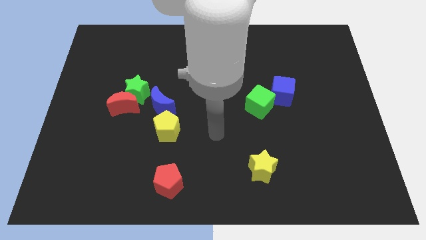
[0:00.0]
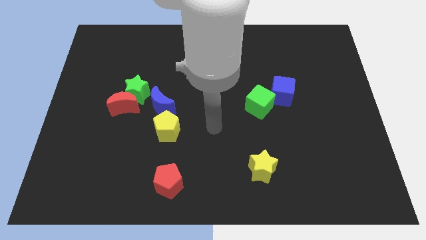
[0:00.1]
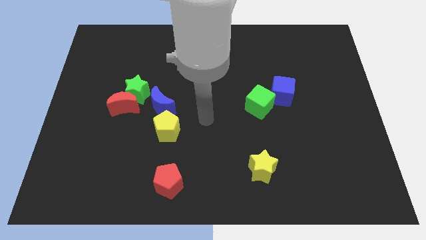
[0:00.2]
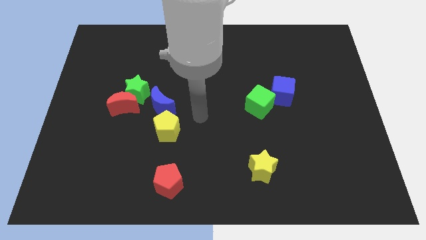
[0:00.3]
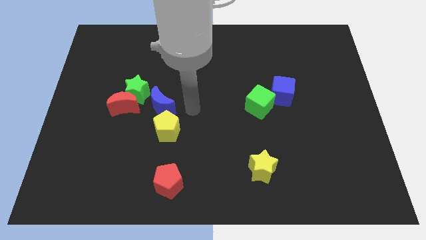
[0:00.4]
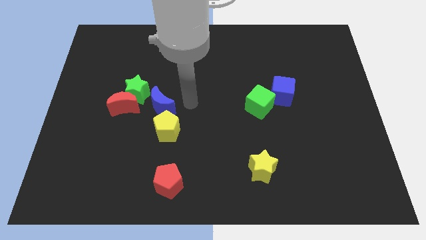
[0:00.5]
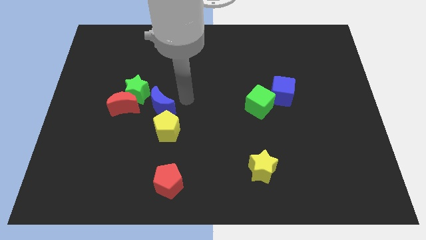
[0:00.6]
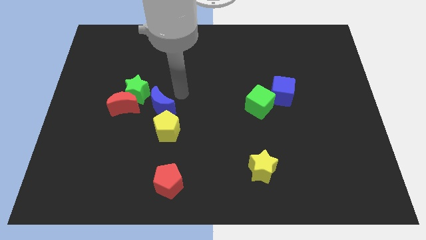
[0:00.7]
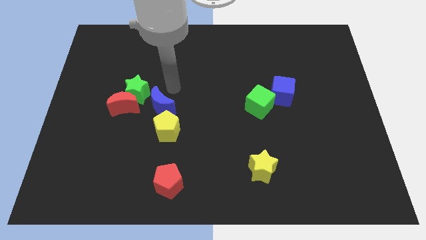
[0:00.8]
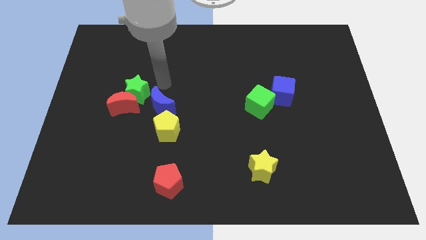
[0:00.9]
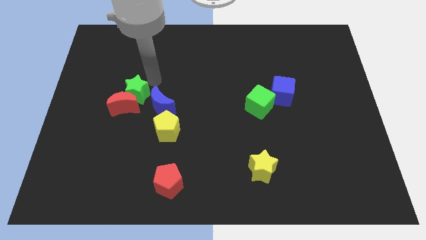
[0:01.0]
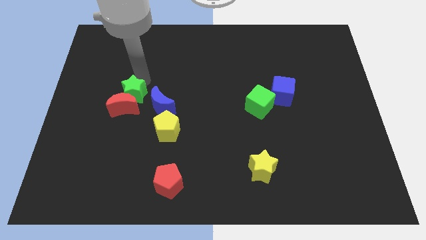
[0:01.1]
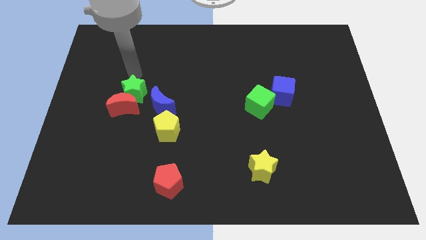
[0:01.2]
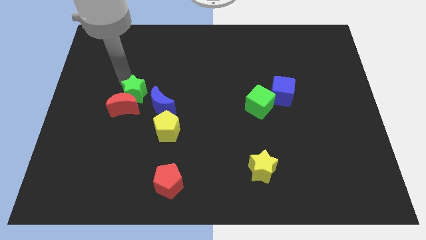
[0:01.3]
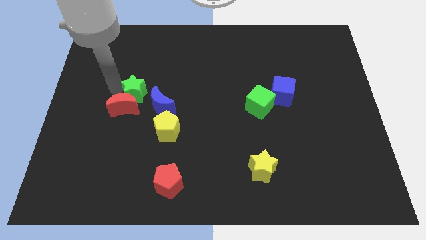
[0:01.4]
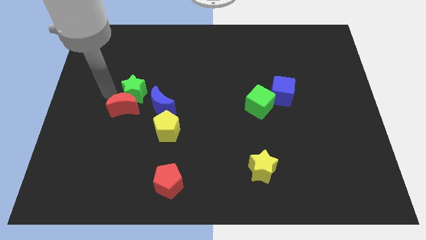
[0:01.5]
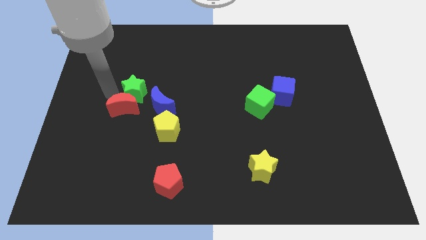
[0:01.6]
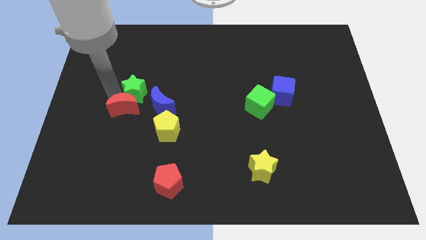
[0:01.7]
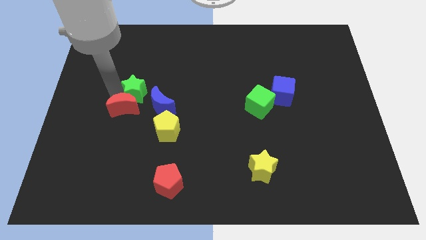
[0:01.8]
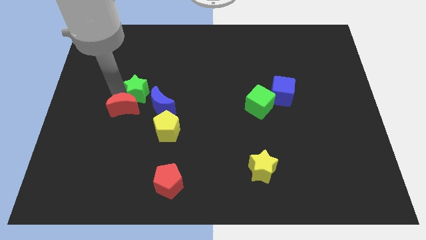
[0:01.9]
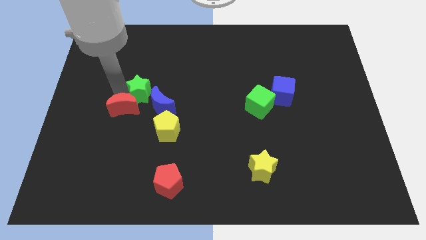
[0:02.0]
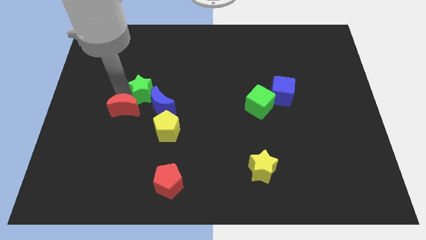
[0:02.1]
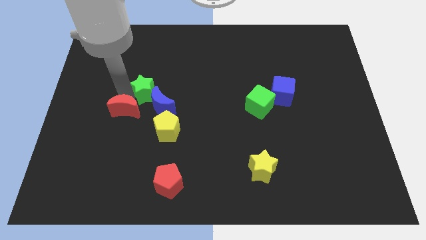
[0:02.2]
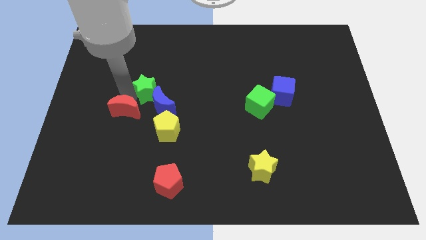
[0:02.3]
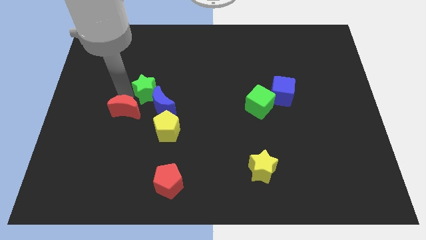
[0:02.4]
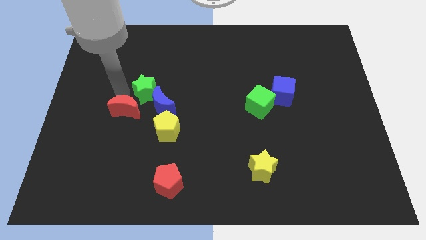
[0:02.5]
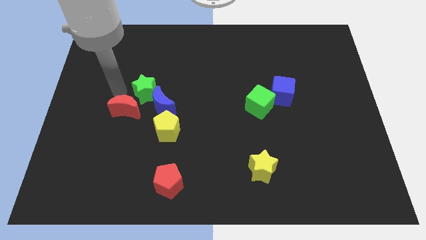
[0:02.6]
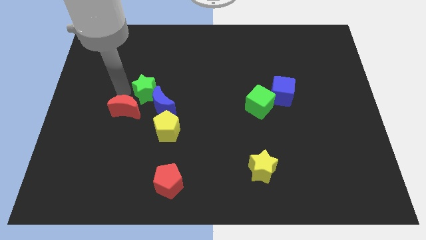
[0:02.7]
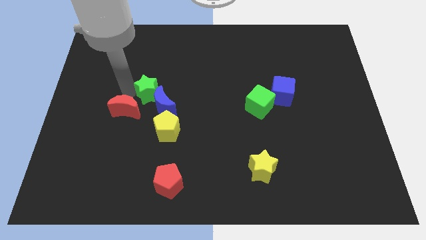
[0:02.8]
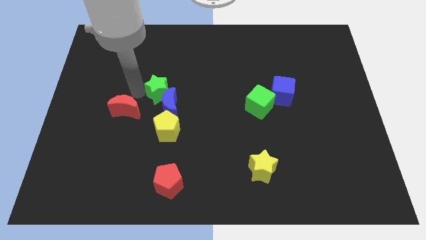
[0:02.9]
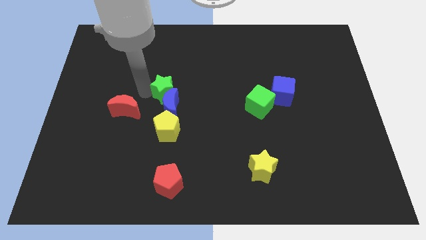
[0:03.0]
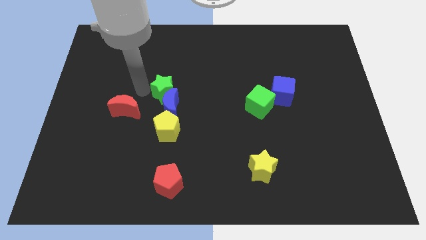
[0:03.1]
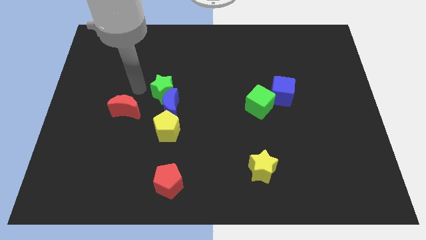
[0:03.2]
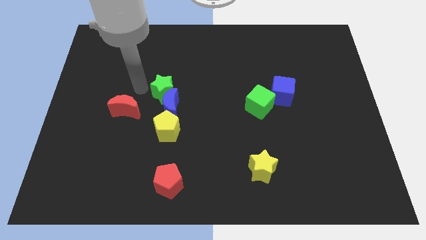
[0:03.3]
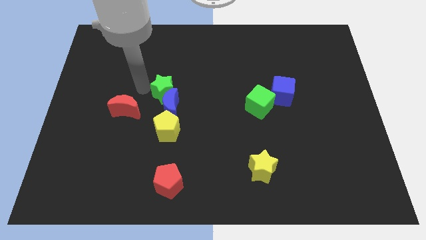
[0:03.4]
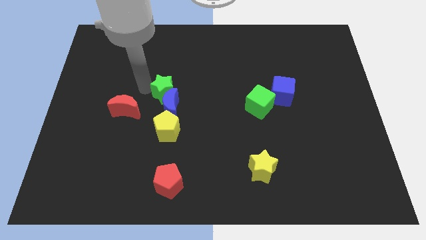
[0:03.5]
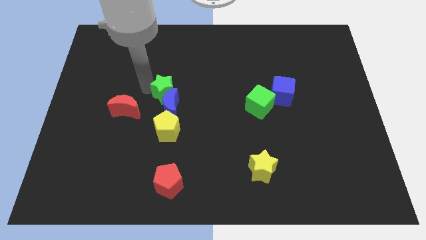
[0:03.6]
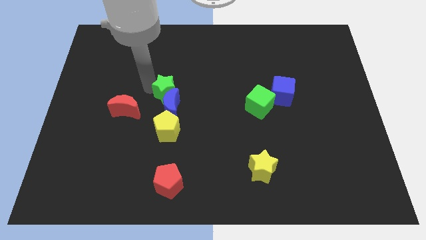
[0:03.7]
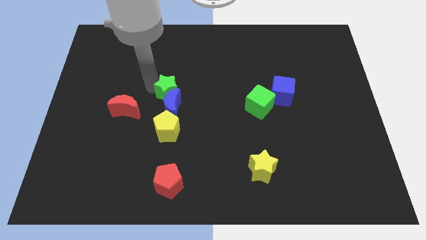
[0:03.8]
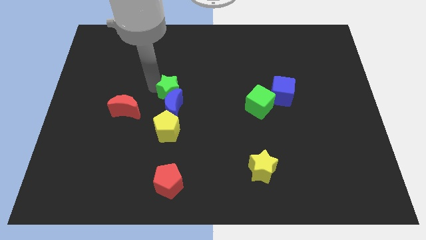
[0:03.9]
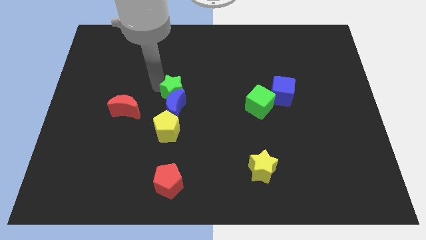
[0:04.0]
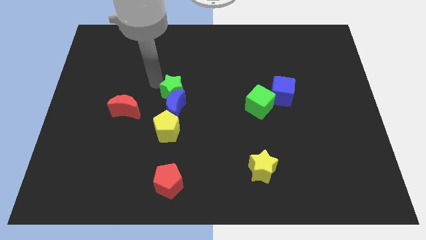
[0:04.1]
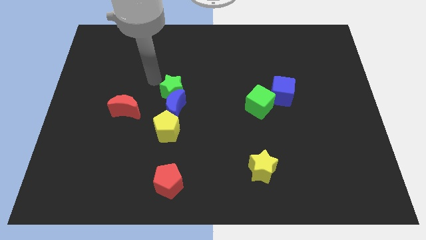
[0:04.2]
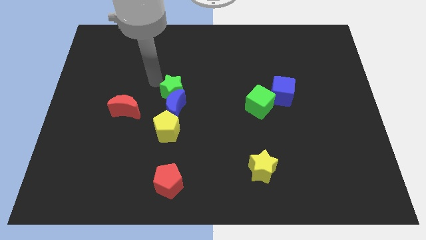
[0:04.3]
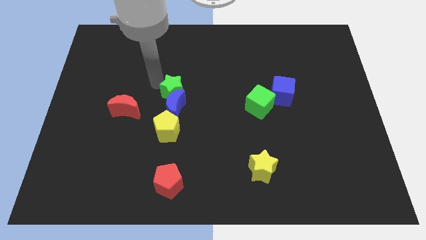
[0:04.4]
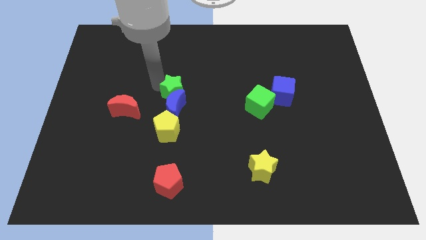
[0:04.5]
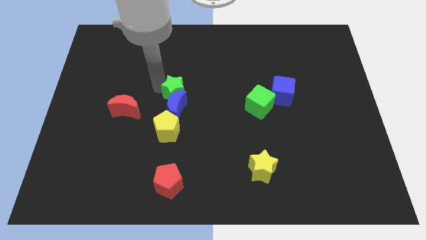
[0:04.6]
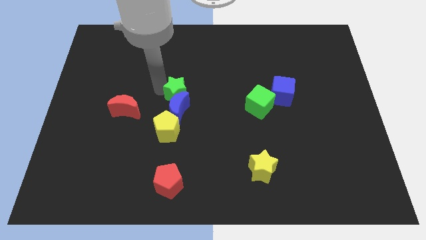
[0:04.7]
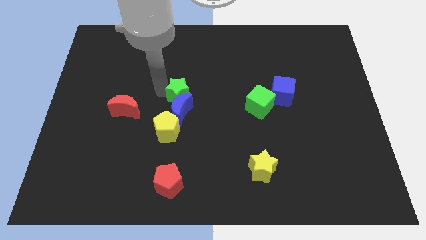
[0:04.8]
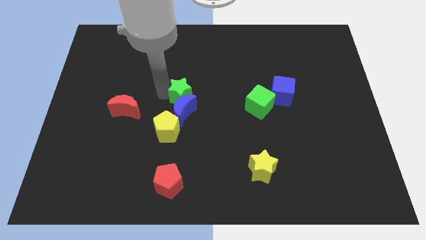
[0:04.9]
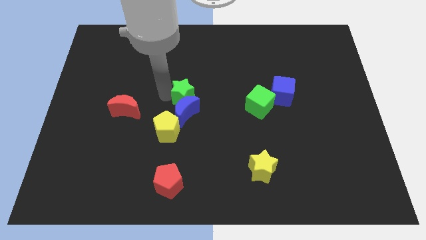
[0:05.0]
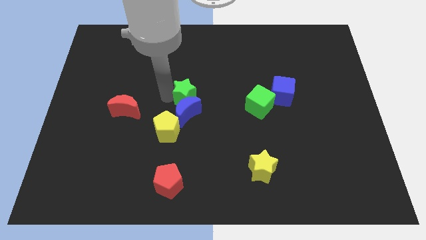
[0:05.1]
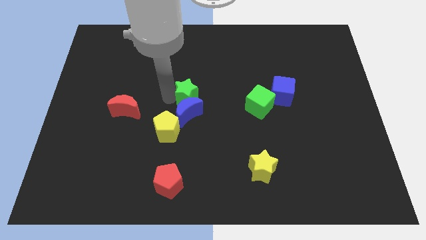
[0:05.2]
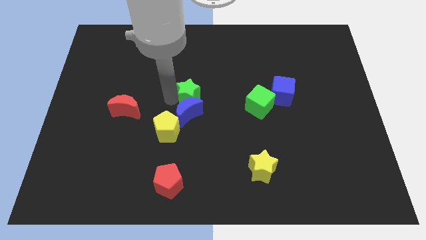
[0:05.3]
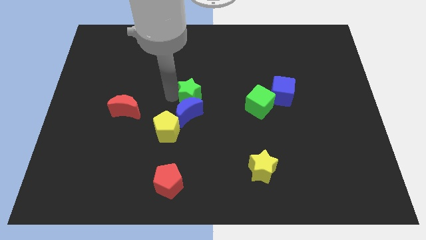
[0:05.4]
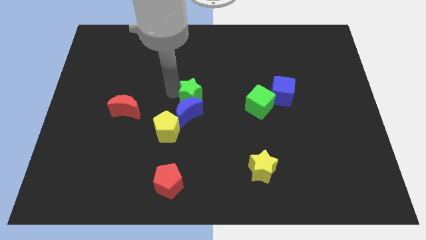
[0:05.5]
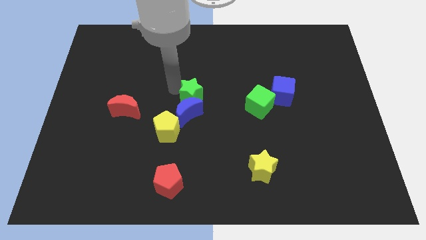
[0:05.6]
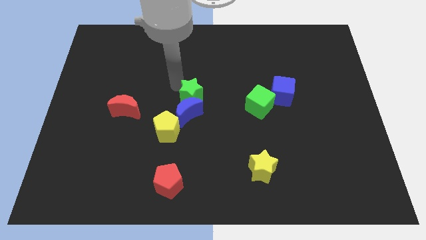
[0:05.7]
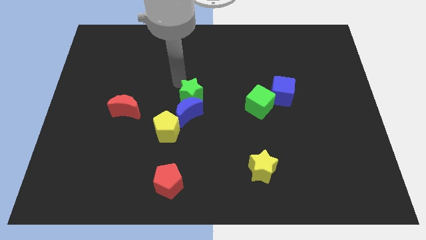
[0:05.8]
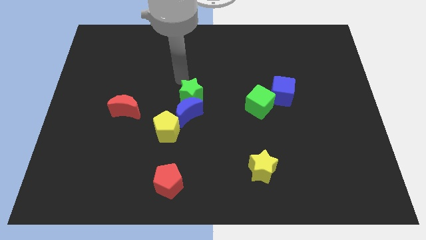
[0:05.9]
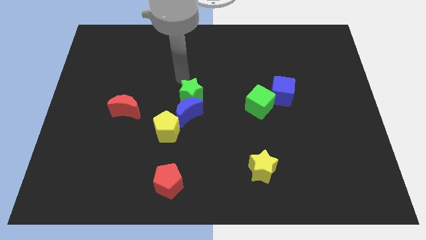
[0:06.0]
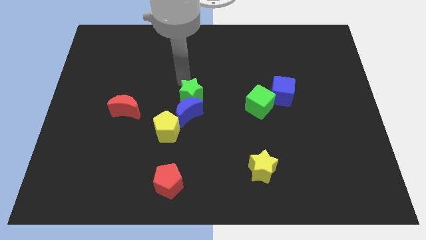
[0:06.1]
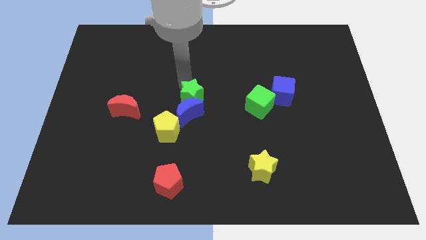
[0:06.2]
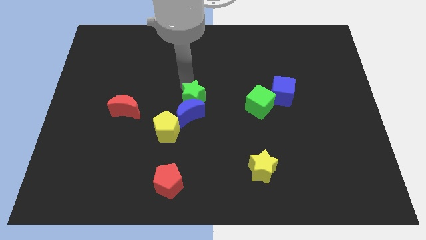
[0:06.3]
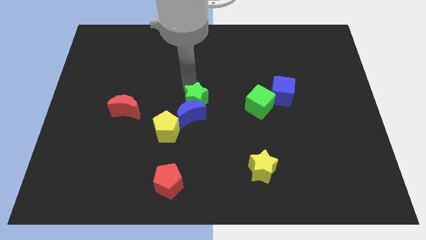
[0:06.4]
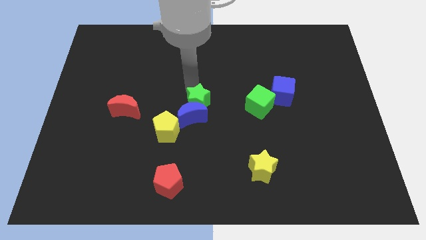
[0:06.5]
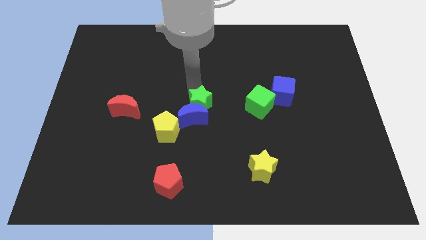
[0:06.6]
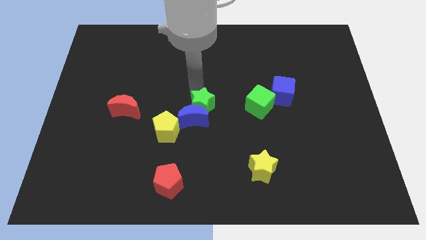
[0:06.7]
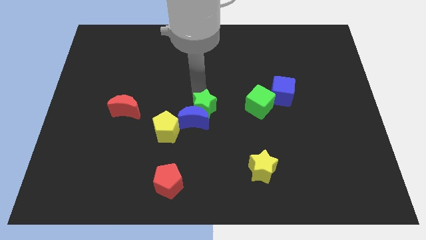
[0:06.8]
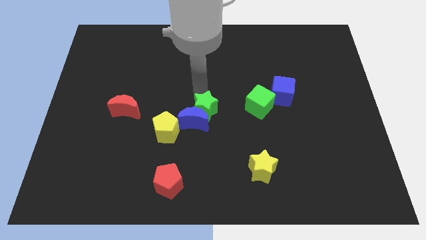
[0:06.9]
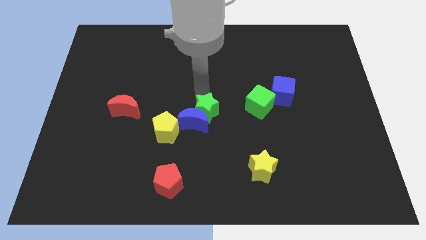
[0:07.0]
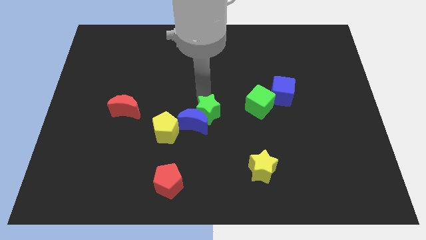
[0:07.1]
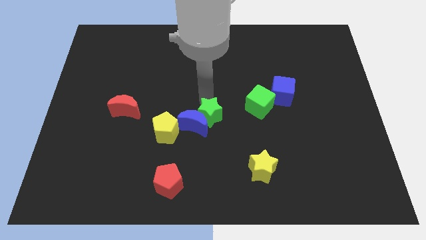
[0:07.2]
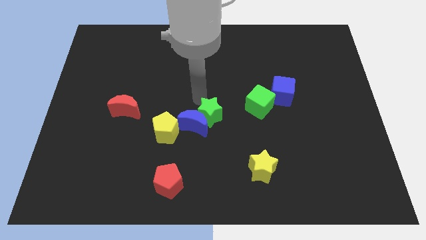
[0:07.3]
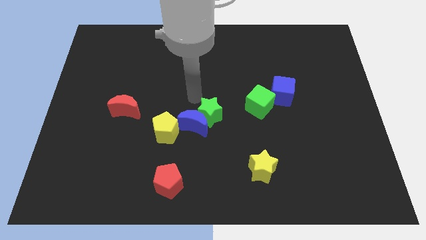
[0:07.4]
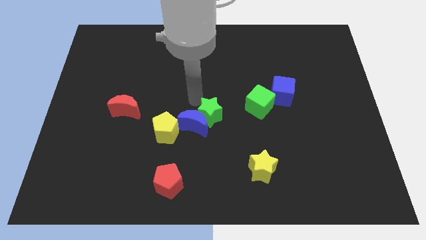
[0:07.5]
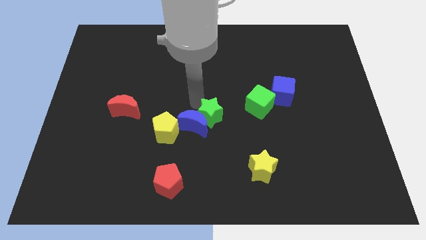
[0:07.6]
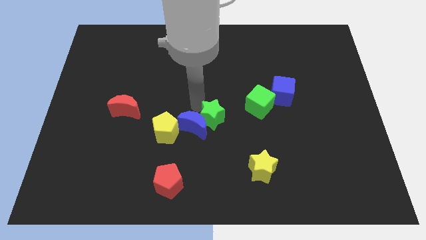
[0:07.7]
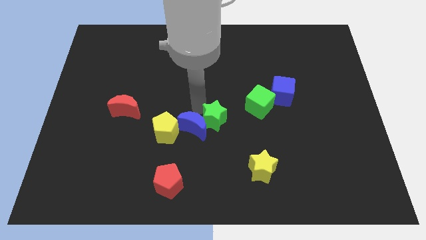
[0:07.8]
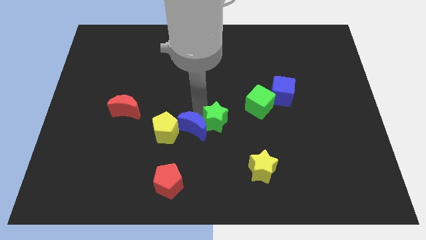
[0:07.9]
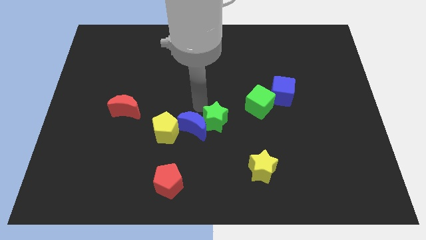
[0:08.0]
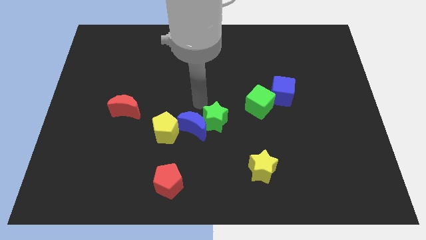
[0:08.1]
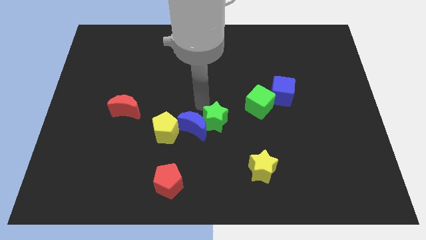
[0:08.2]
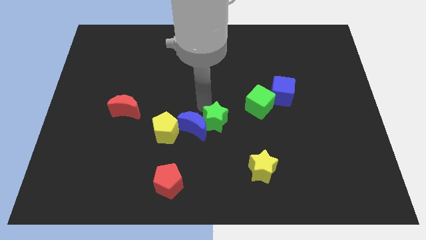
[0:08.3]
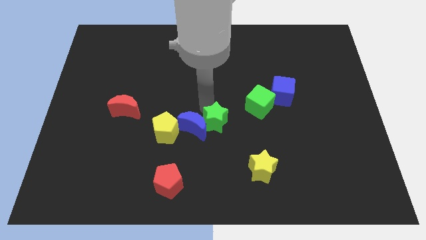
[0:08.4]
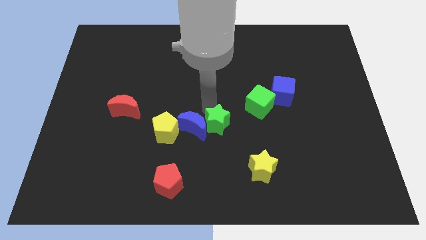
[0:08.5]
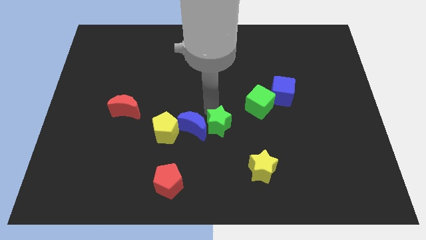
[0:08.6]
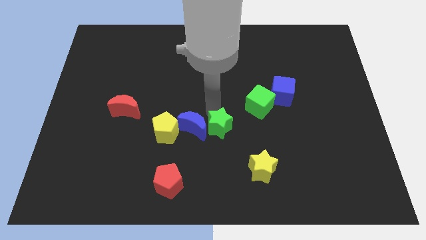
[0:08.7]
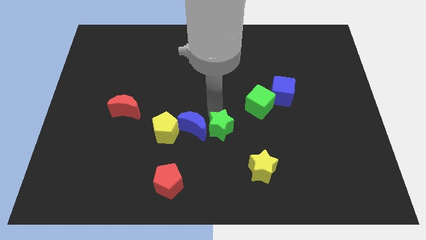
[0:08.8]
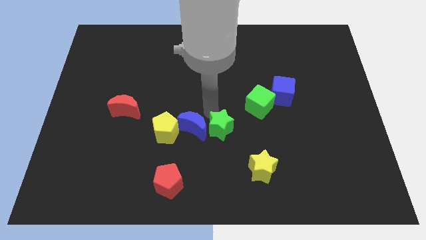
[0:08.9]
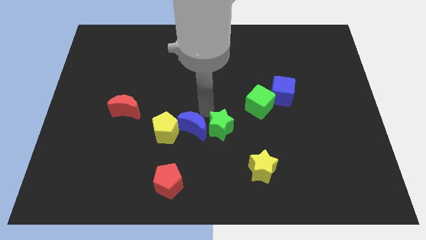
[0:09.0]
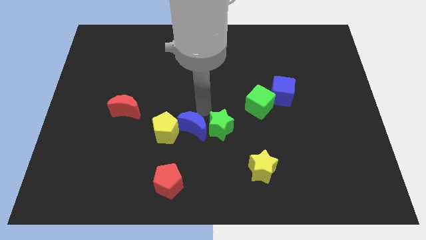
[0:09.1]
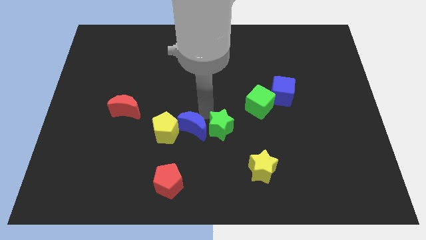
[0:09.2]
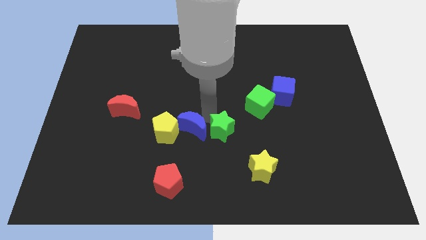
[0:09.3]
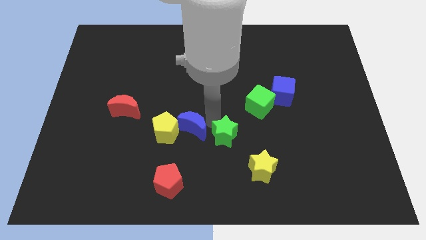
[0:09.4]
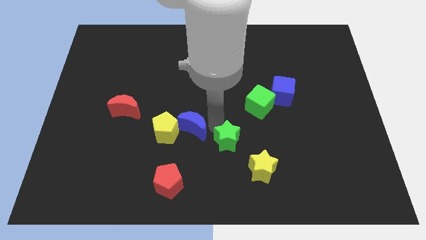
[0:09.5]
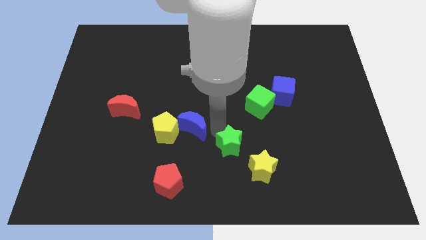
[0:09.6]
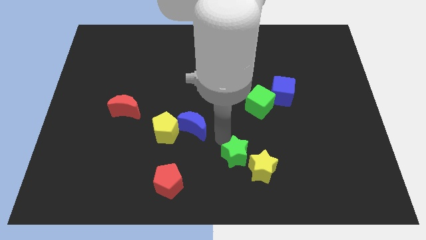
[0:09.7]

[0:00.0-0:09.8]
put the green star close to the yellow star
